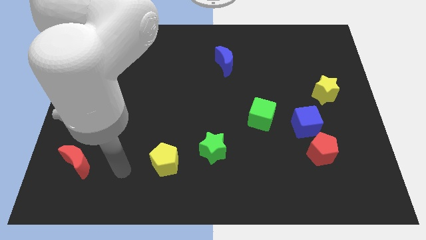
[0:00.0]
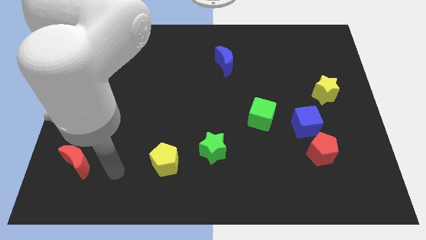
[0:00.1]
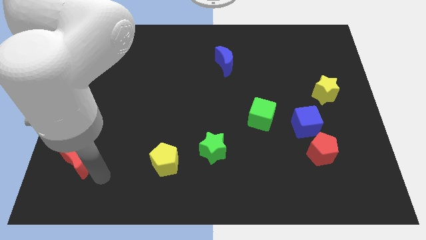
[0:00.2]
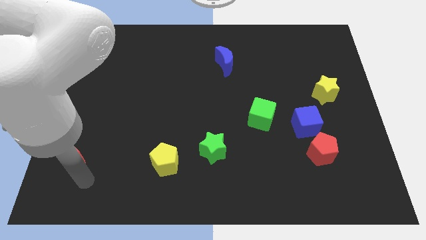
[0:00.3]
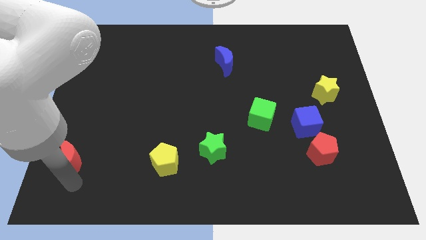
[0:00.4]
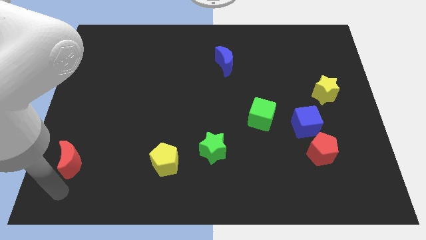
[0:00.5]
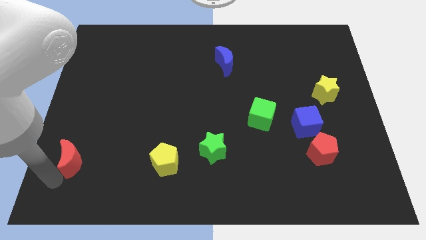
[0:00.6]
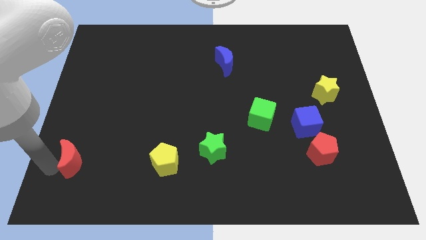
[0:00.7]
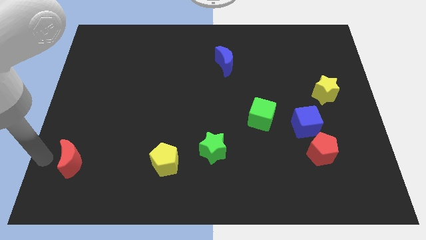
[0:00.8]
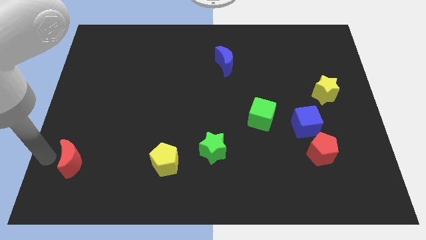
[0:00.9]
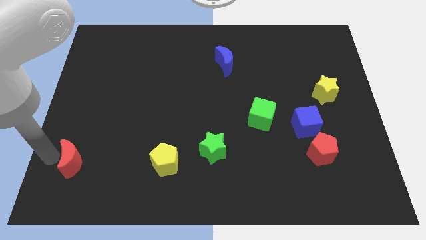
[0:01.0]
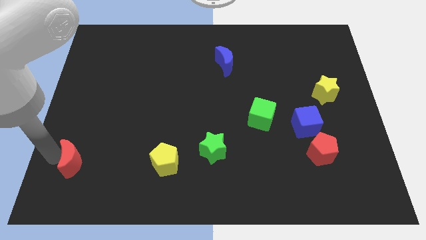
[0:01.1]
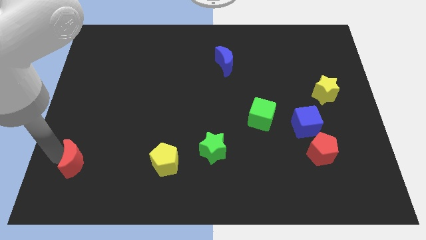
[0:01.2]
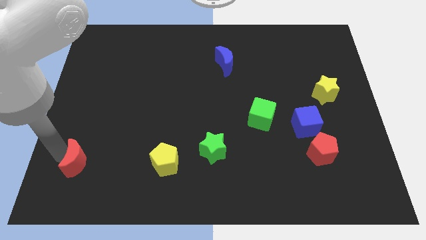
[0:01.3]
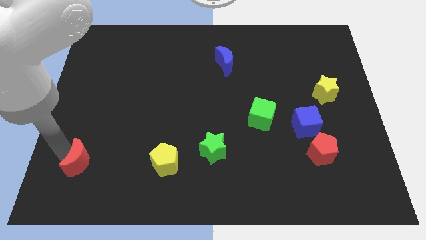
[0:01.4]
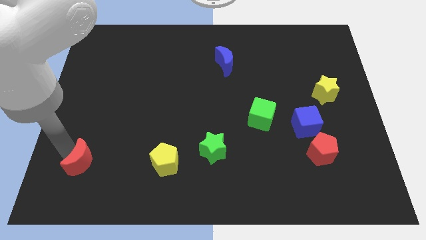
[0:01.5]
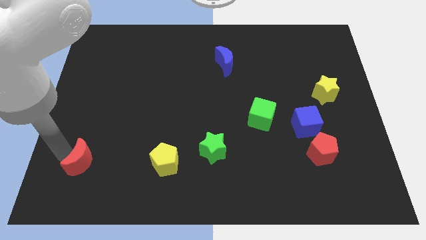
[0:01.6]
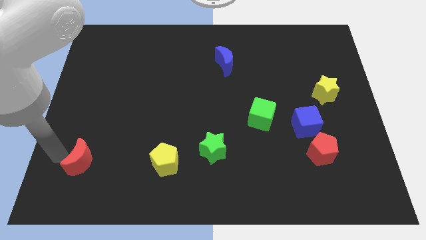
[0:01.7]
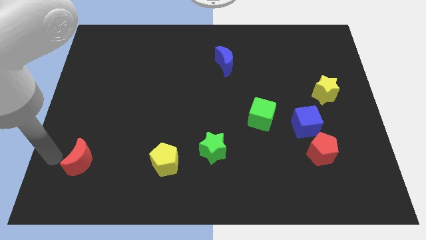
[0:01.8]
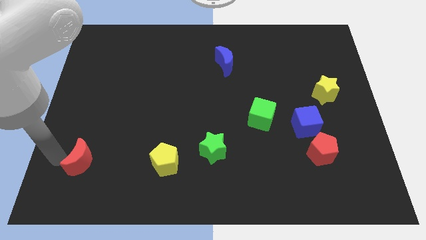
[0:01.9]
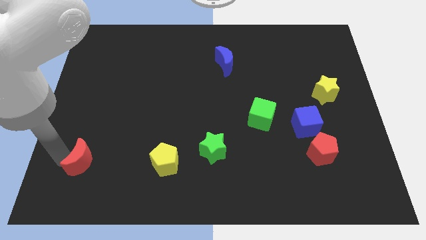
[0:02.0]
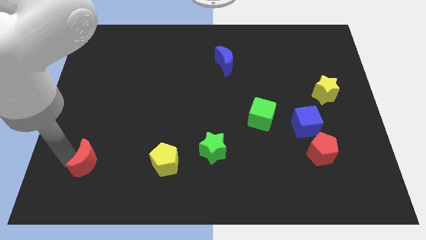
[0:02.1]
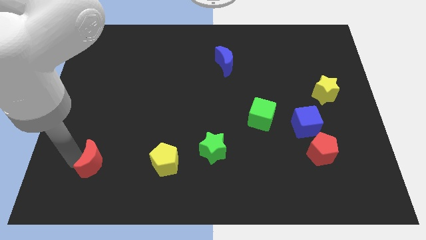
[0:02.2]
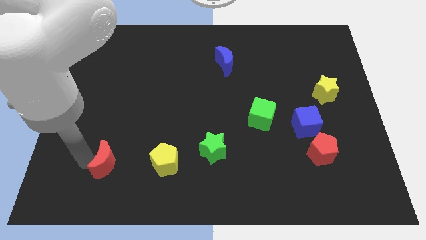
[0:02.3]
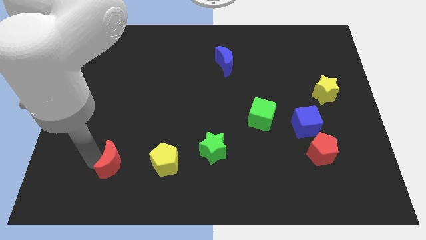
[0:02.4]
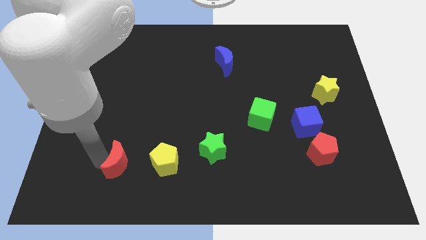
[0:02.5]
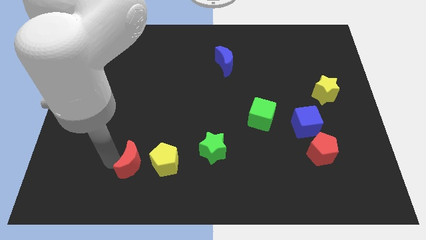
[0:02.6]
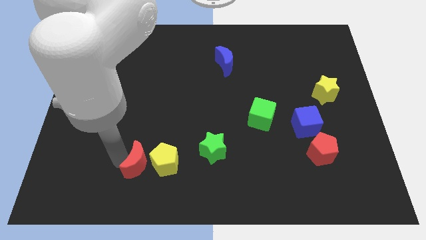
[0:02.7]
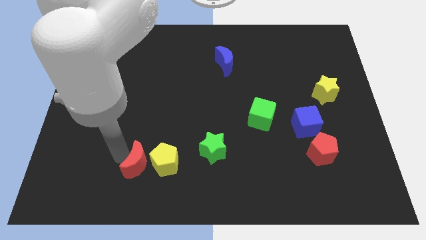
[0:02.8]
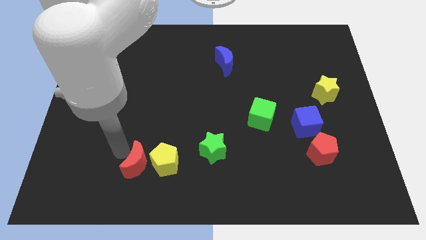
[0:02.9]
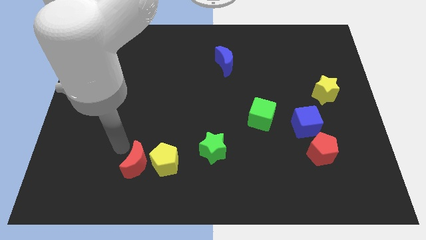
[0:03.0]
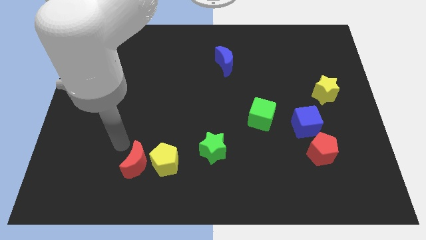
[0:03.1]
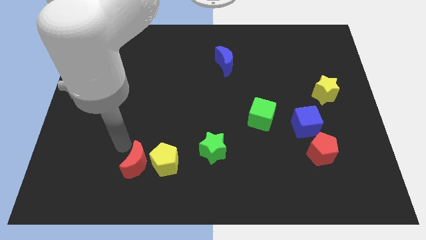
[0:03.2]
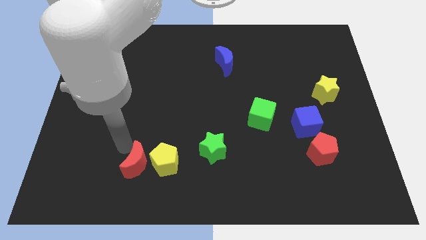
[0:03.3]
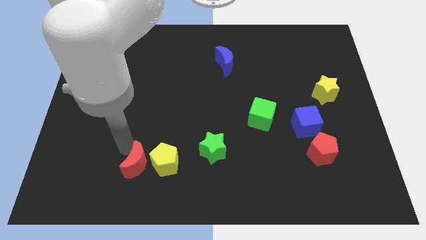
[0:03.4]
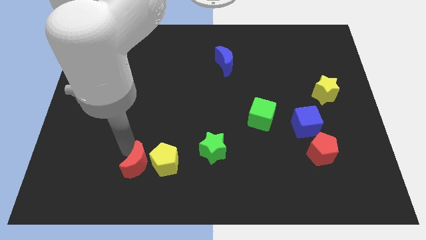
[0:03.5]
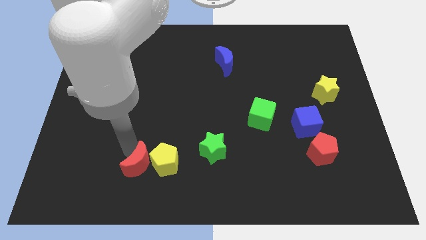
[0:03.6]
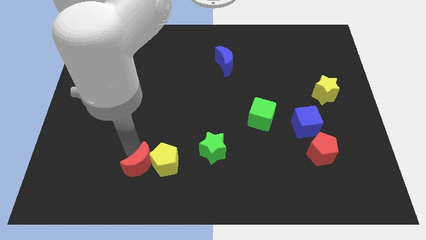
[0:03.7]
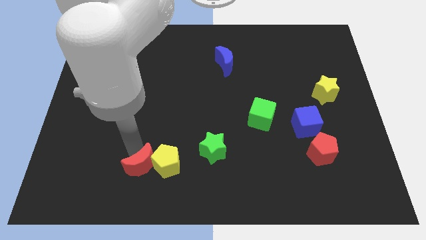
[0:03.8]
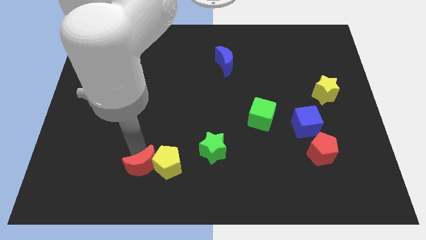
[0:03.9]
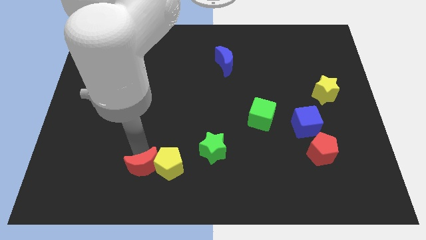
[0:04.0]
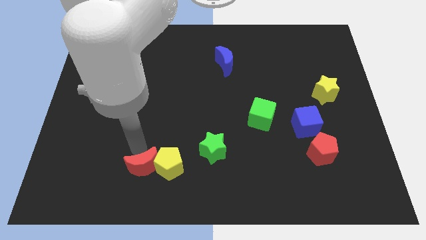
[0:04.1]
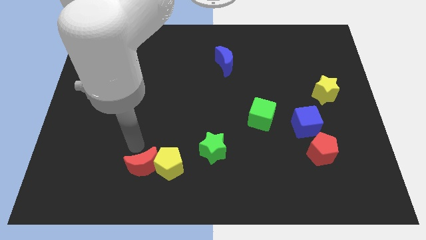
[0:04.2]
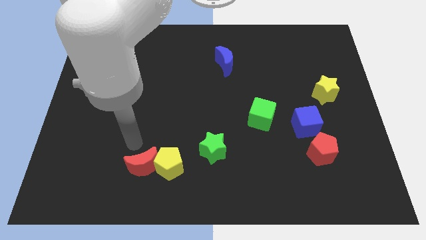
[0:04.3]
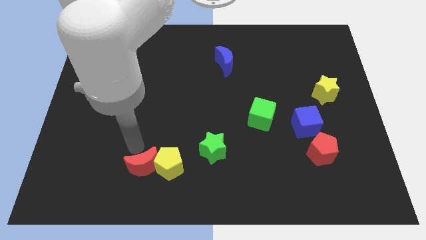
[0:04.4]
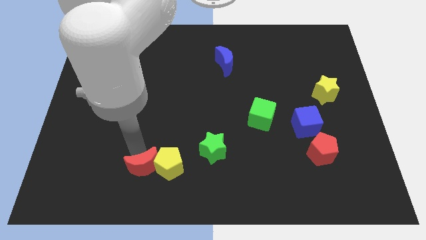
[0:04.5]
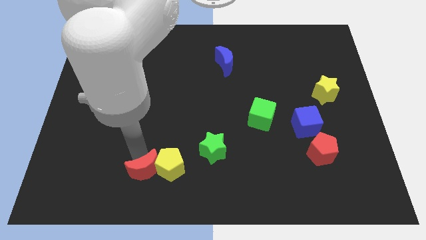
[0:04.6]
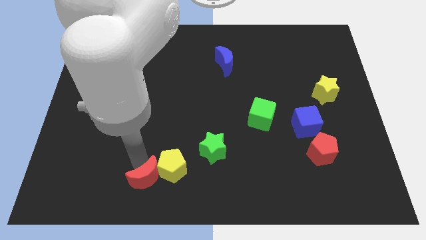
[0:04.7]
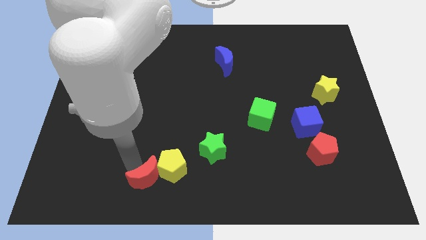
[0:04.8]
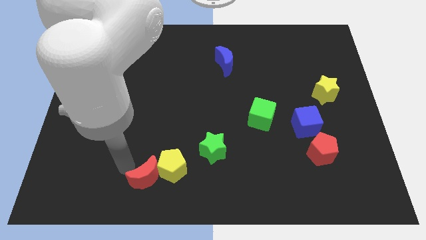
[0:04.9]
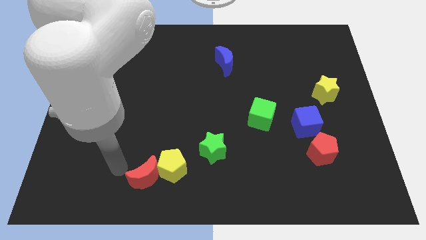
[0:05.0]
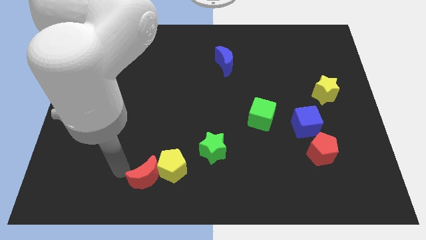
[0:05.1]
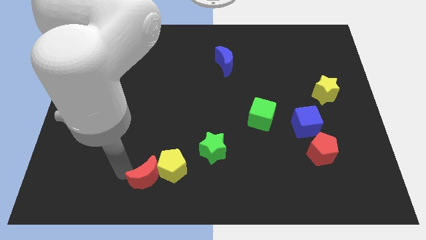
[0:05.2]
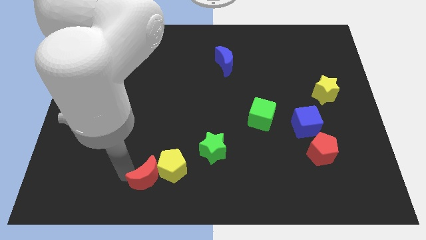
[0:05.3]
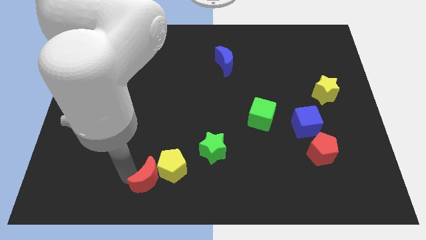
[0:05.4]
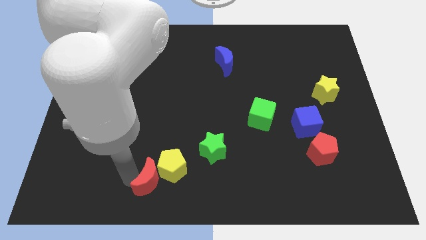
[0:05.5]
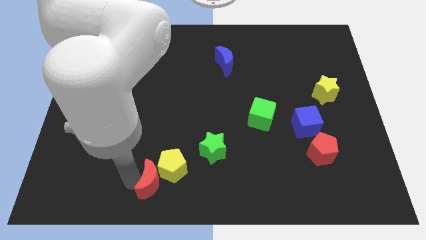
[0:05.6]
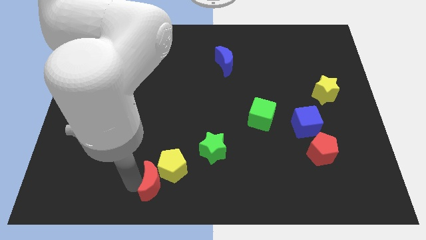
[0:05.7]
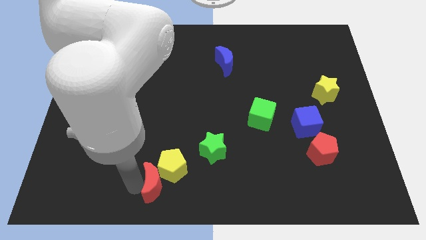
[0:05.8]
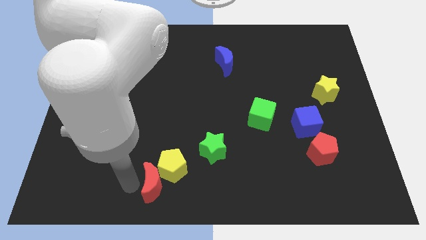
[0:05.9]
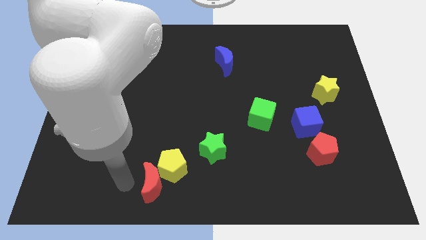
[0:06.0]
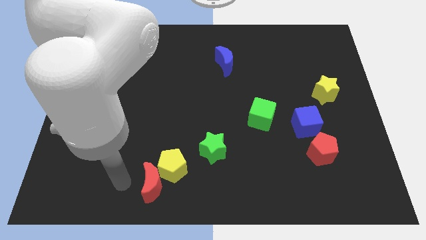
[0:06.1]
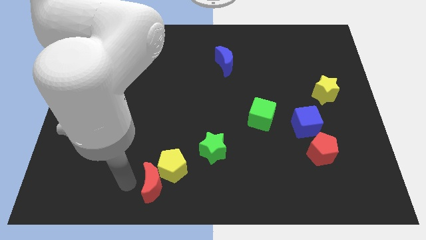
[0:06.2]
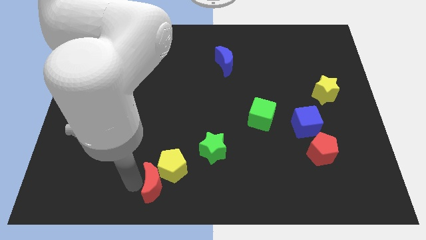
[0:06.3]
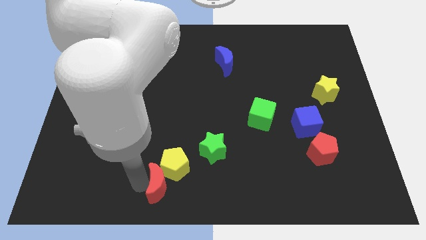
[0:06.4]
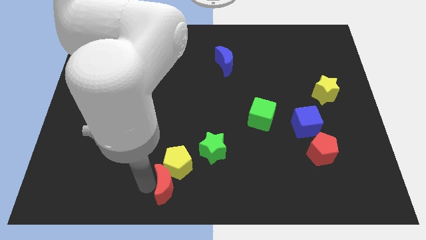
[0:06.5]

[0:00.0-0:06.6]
slide the red moon to the bottom left side of the green star

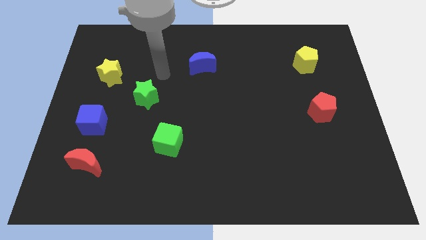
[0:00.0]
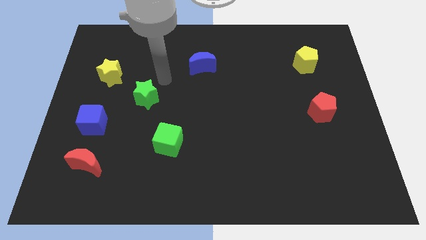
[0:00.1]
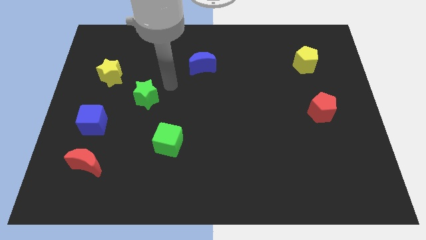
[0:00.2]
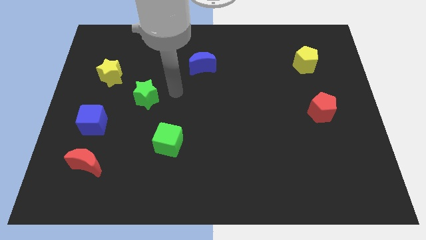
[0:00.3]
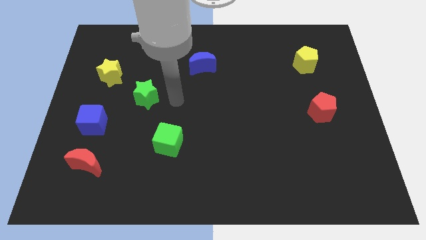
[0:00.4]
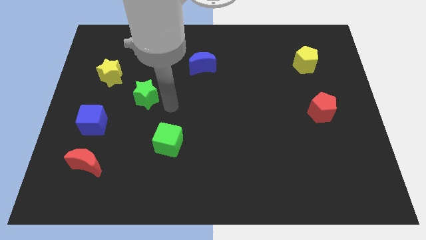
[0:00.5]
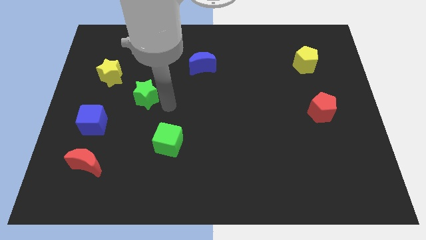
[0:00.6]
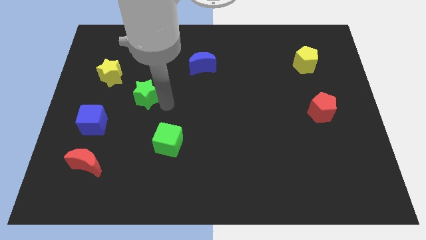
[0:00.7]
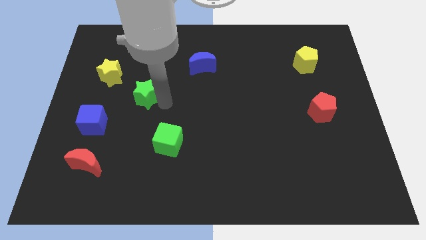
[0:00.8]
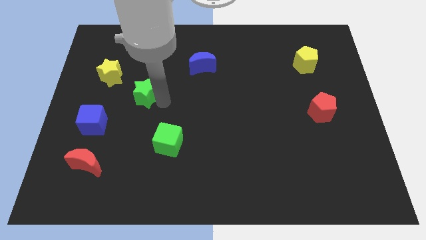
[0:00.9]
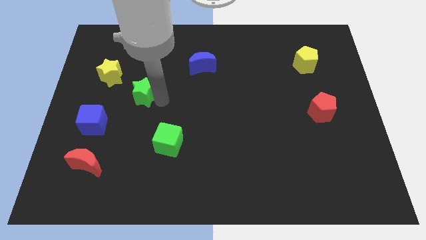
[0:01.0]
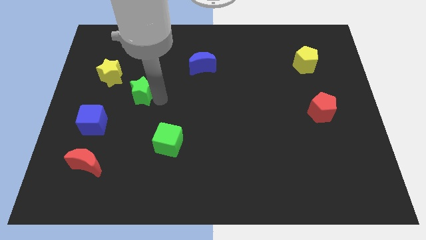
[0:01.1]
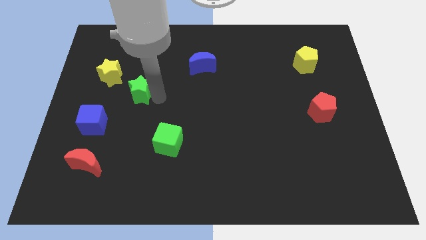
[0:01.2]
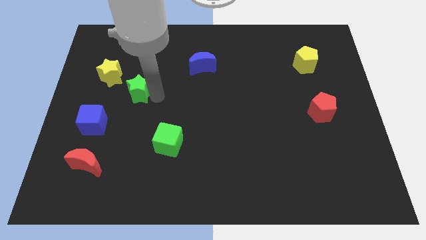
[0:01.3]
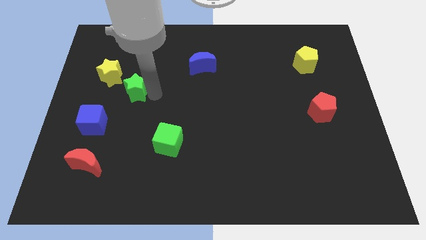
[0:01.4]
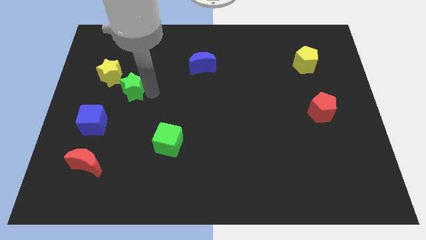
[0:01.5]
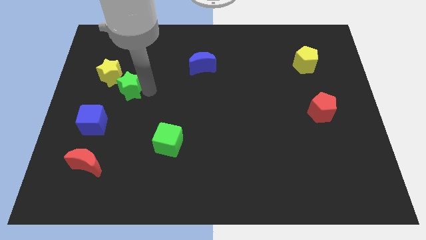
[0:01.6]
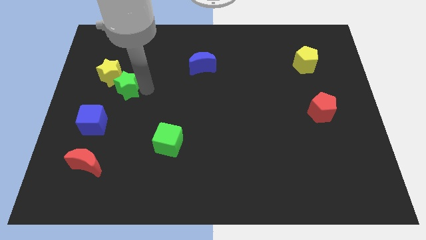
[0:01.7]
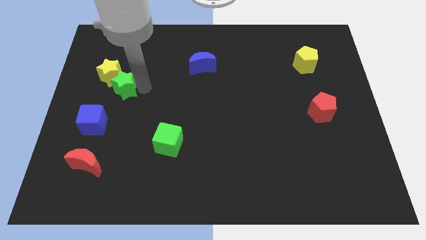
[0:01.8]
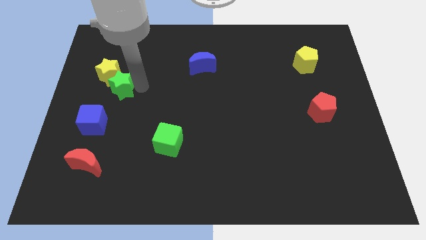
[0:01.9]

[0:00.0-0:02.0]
put the green star above the blue cube
